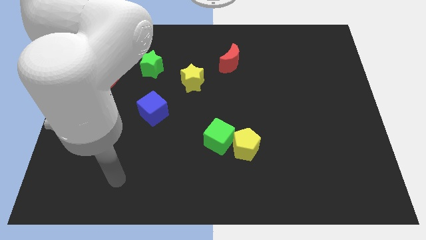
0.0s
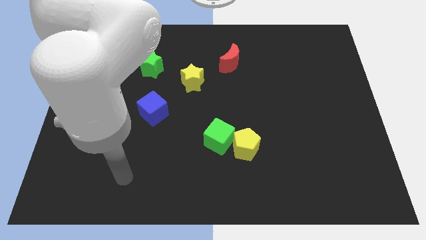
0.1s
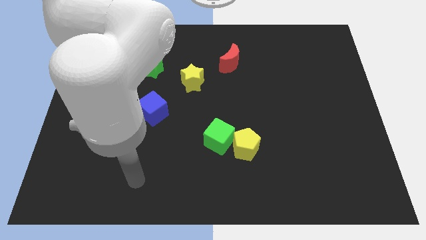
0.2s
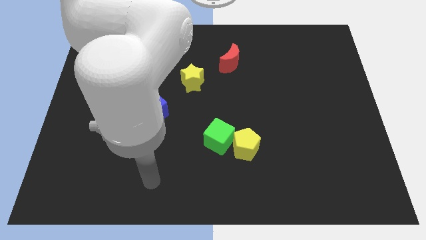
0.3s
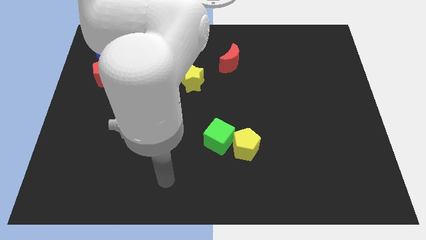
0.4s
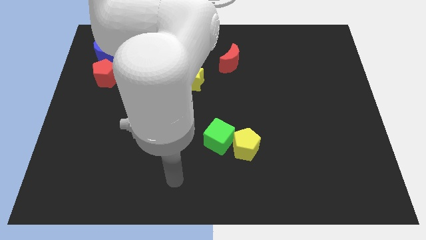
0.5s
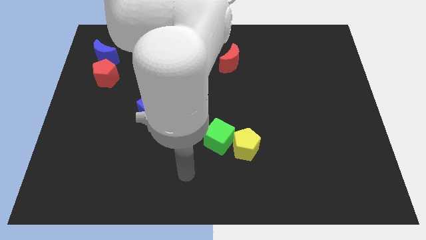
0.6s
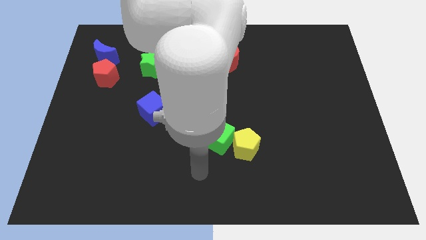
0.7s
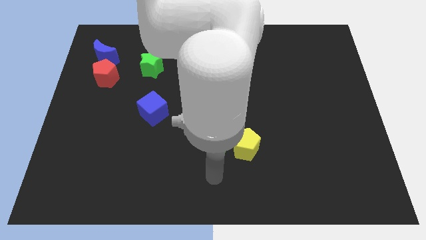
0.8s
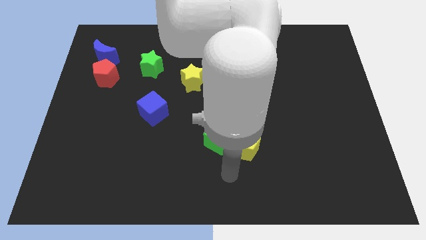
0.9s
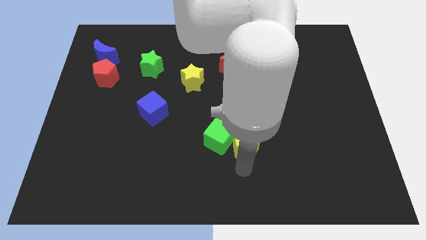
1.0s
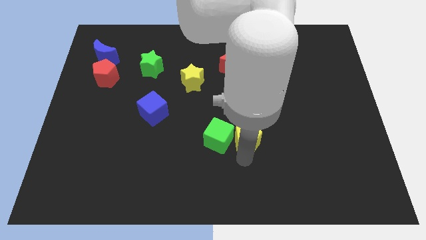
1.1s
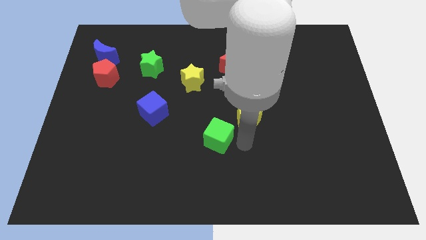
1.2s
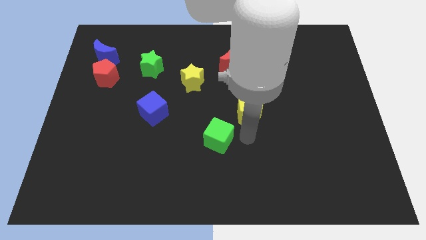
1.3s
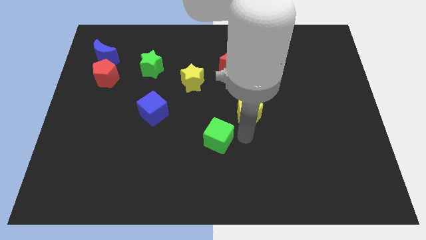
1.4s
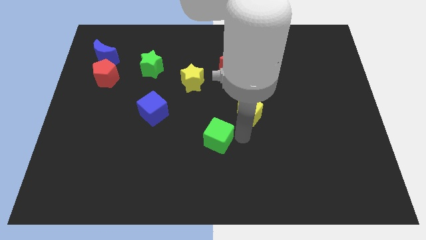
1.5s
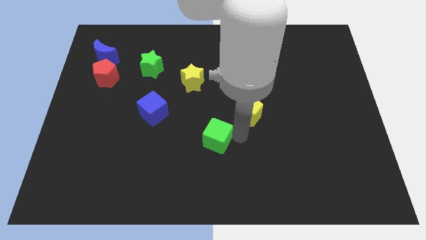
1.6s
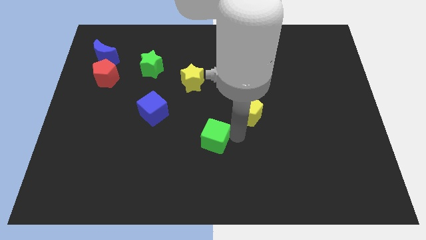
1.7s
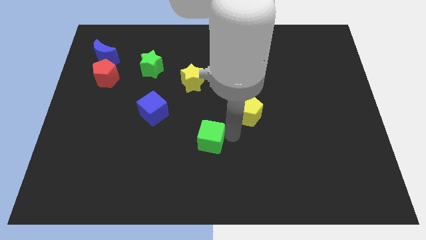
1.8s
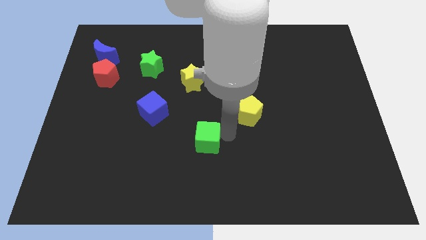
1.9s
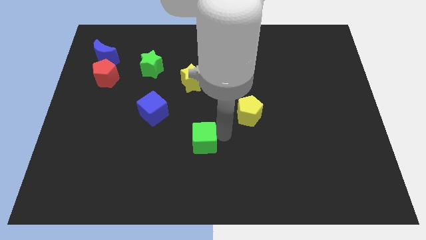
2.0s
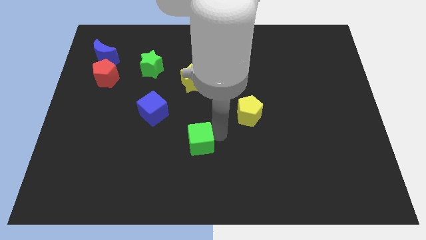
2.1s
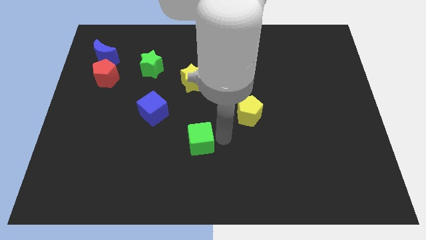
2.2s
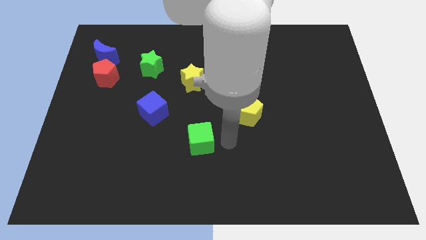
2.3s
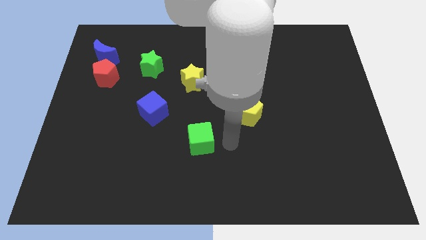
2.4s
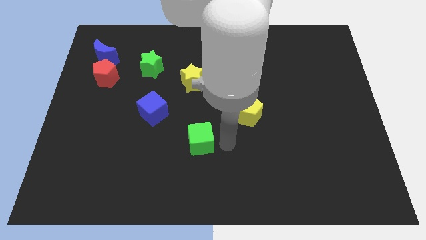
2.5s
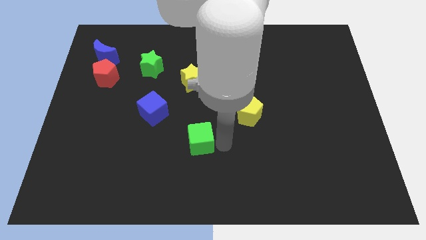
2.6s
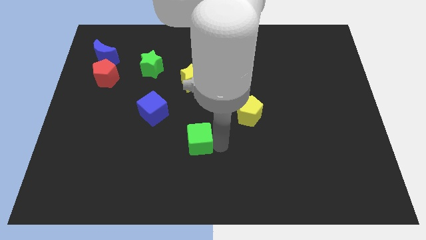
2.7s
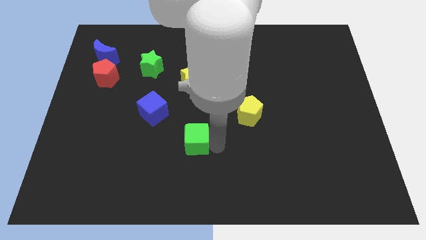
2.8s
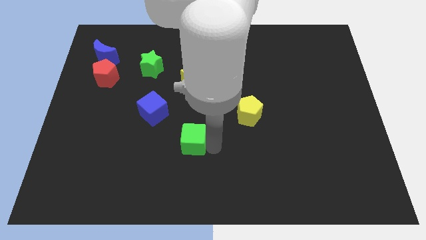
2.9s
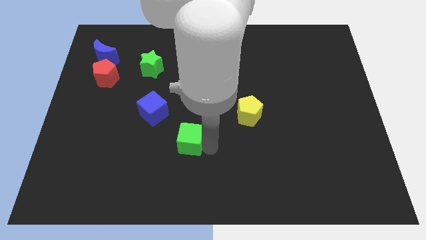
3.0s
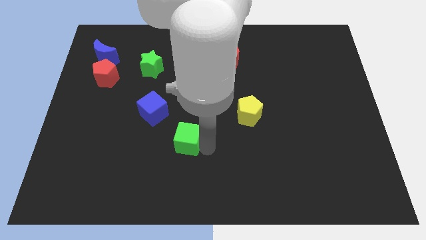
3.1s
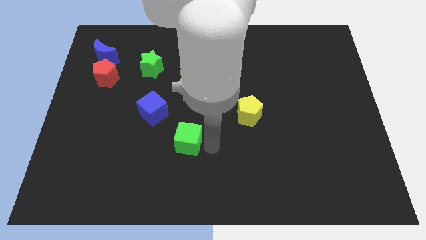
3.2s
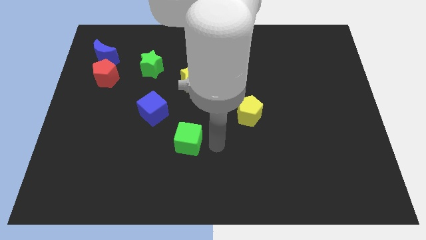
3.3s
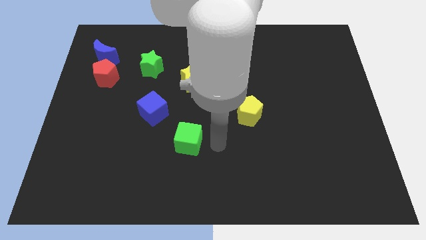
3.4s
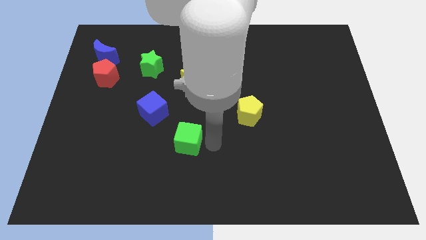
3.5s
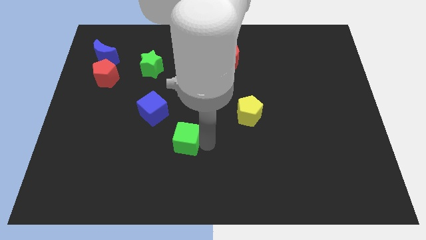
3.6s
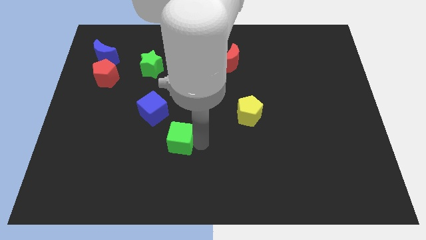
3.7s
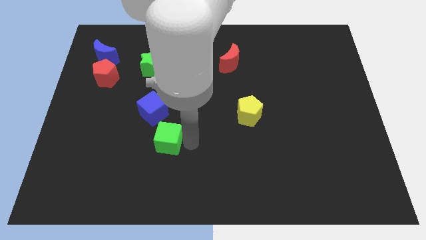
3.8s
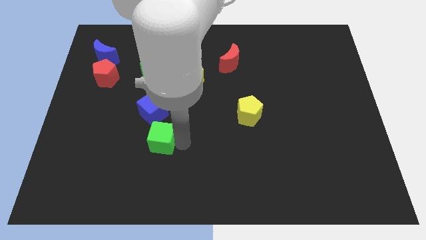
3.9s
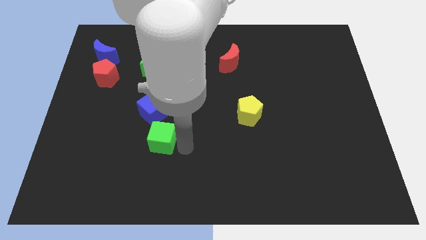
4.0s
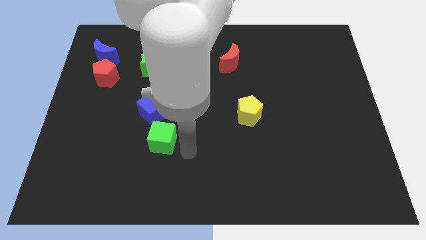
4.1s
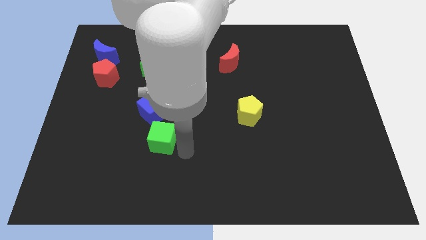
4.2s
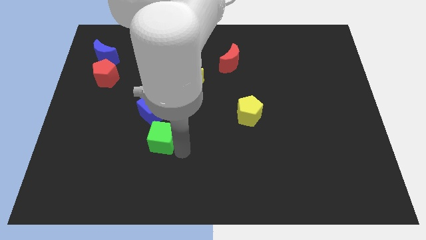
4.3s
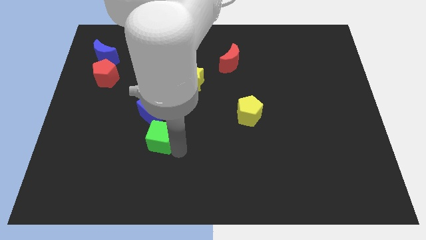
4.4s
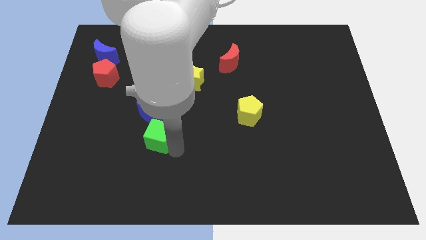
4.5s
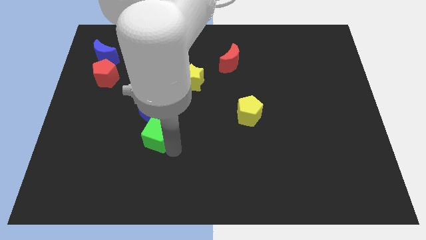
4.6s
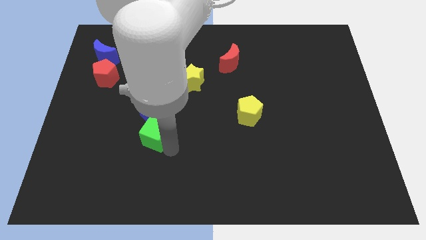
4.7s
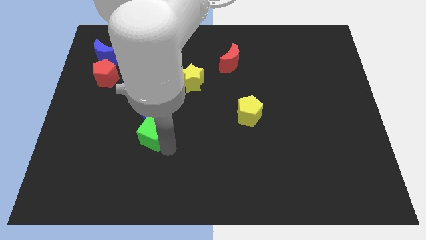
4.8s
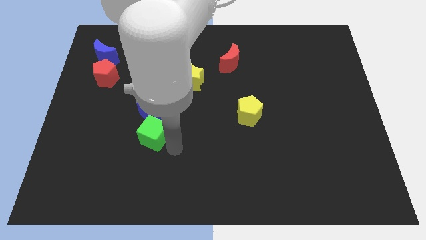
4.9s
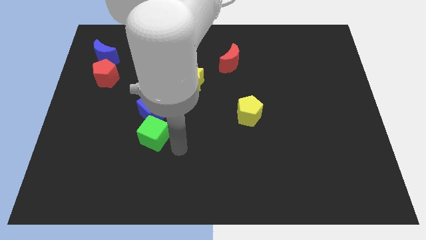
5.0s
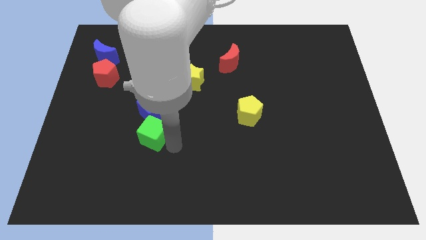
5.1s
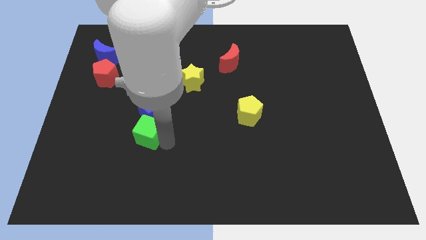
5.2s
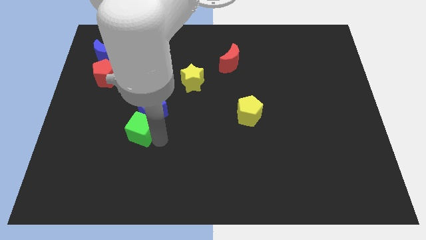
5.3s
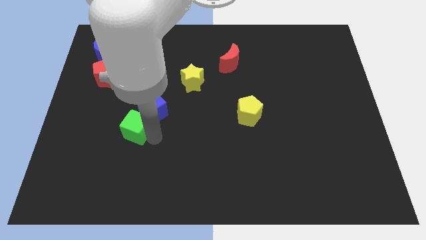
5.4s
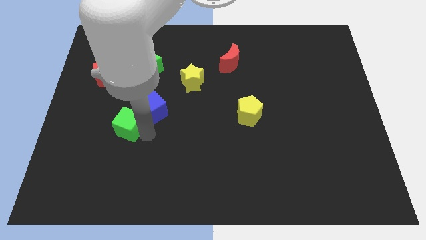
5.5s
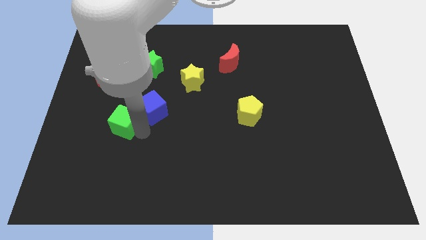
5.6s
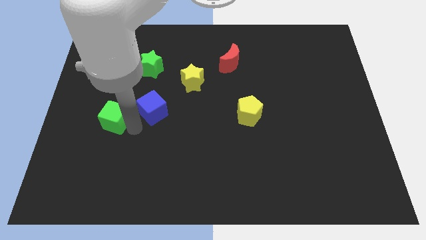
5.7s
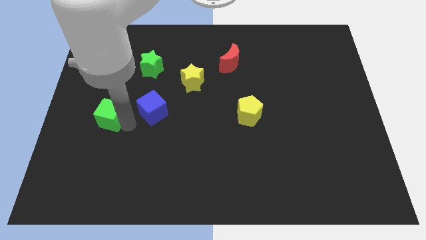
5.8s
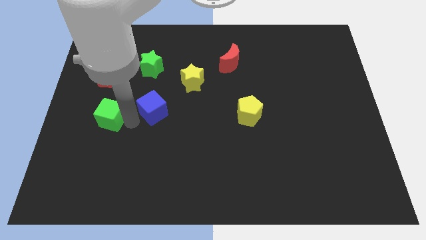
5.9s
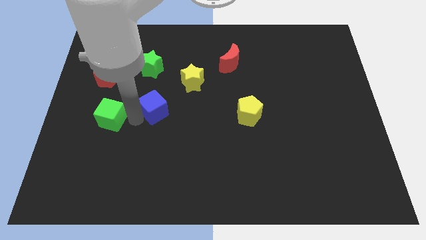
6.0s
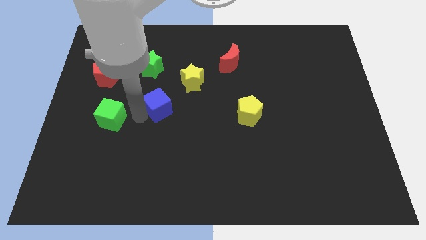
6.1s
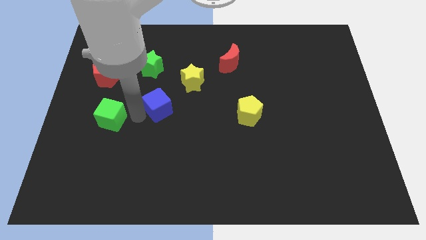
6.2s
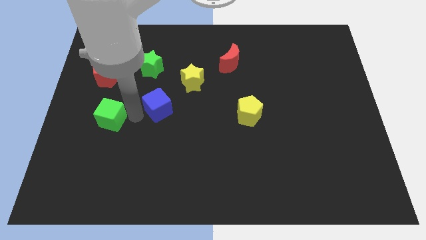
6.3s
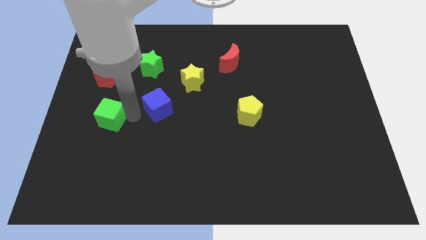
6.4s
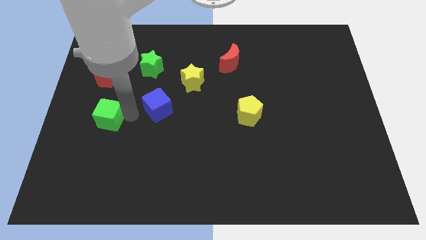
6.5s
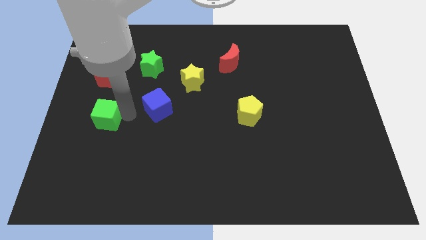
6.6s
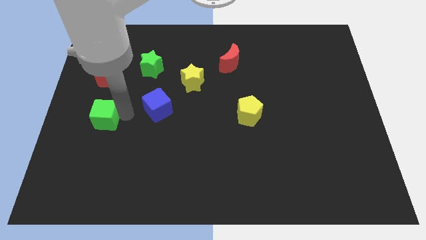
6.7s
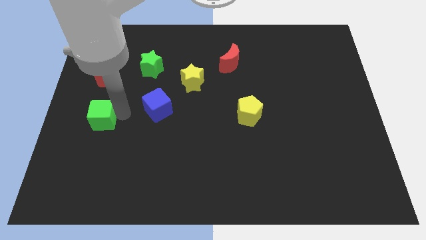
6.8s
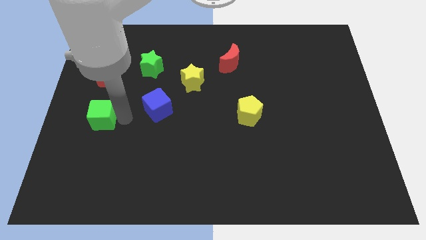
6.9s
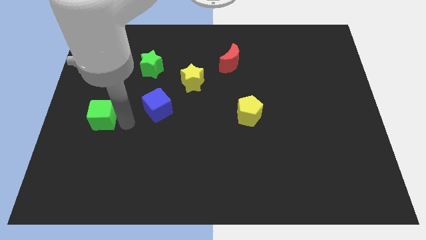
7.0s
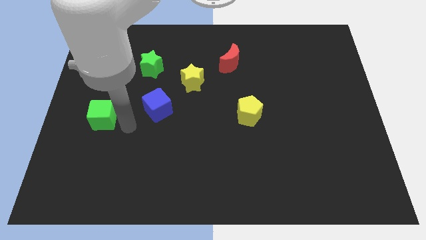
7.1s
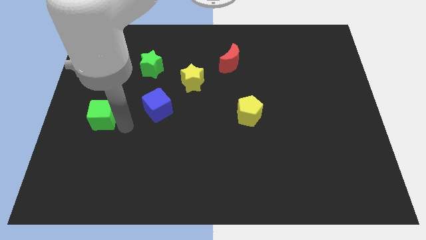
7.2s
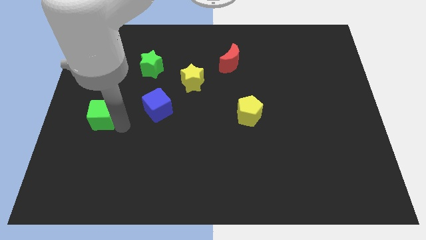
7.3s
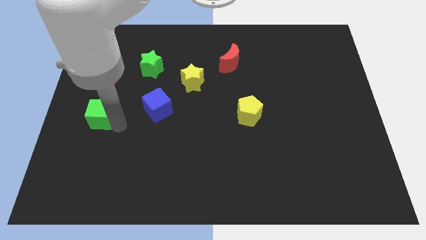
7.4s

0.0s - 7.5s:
move the green cube to the center left

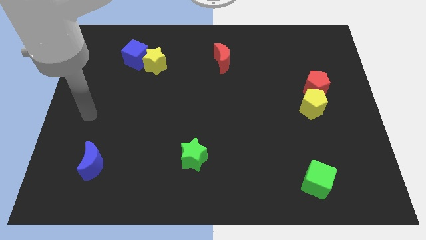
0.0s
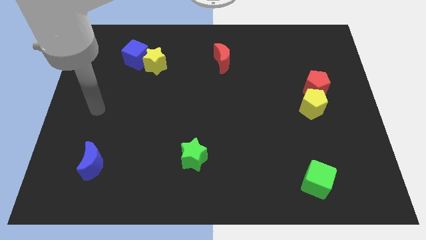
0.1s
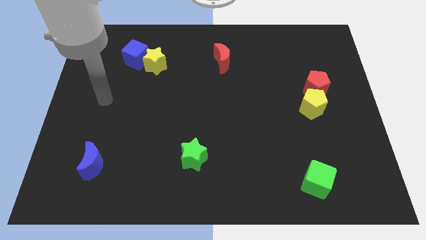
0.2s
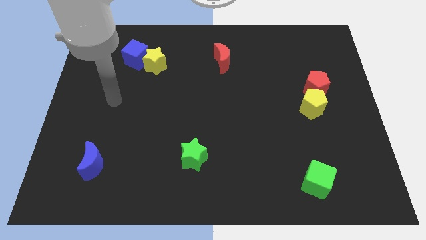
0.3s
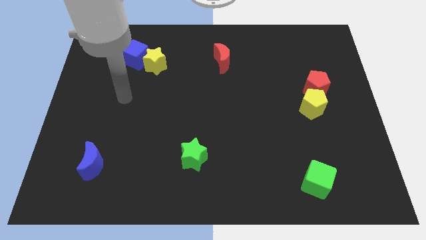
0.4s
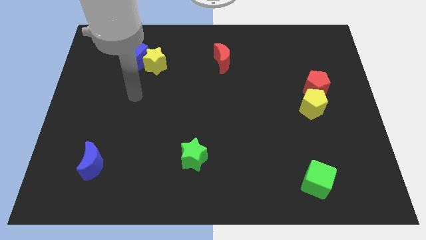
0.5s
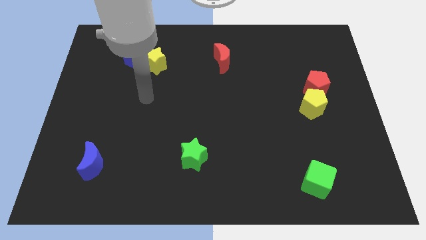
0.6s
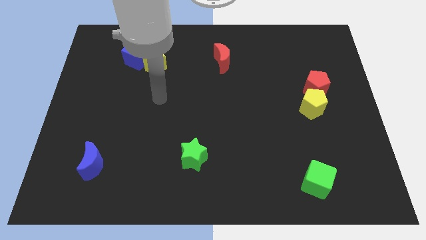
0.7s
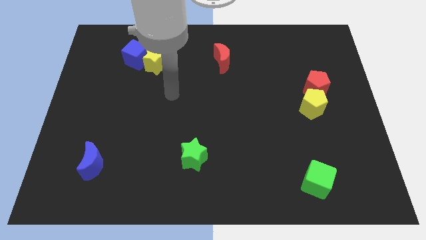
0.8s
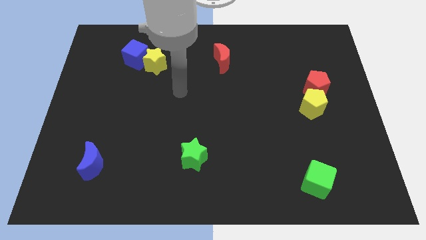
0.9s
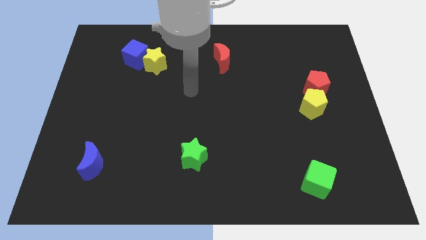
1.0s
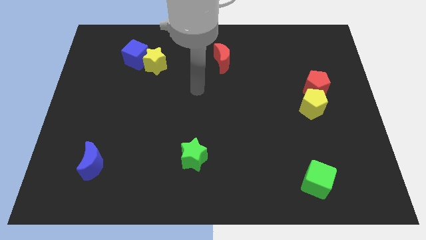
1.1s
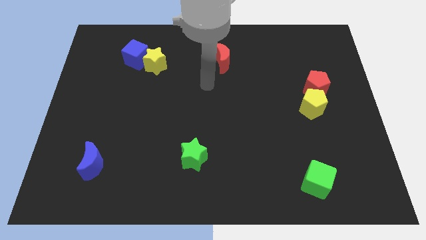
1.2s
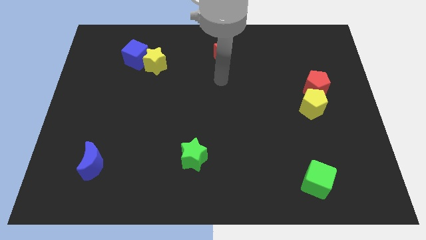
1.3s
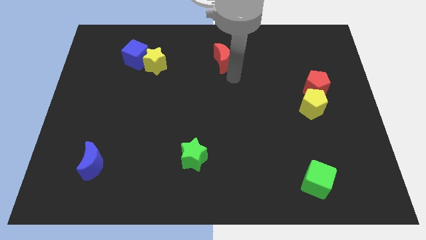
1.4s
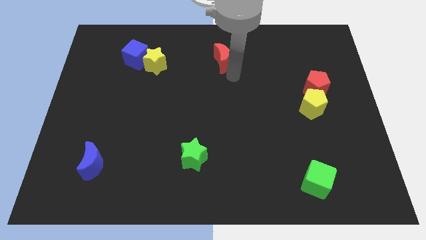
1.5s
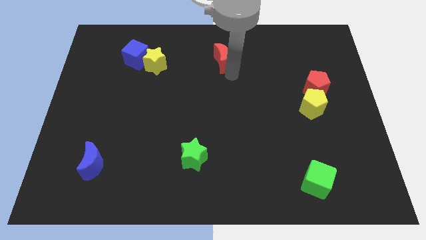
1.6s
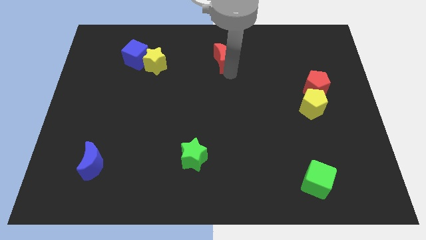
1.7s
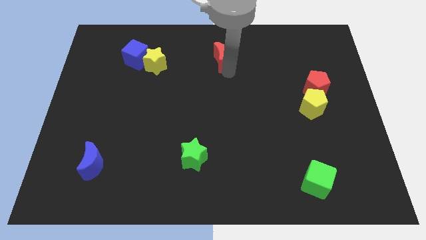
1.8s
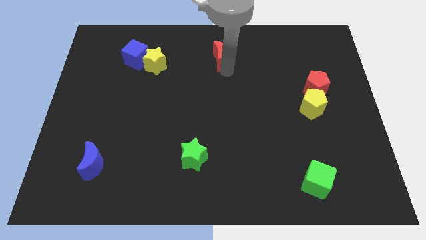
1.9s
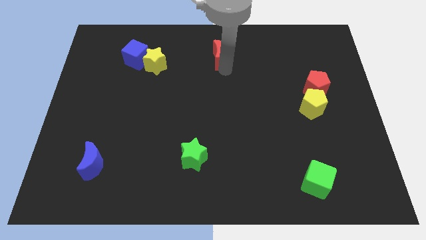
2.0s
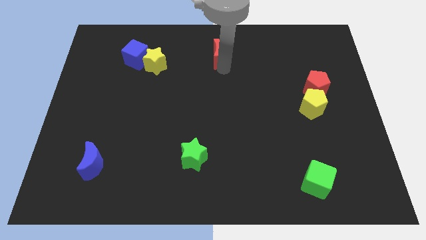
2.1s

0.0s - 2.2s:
put the red moon to the top side
